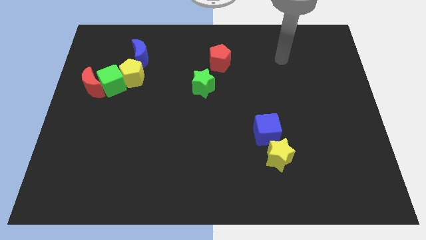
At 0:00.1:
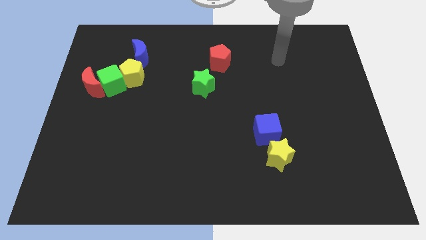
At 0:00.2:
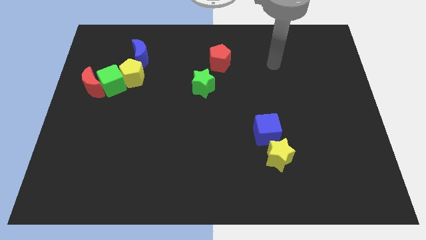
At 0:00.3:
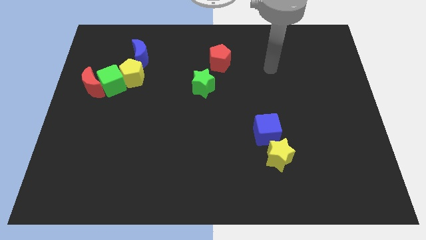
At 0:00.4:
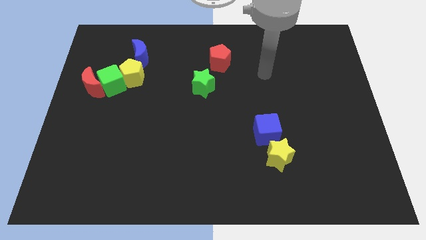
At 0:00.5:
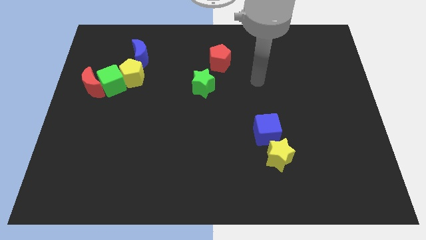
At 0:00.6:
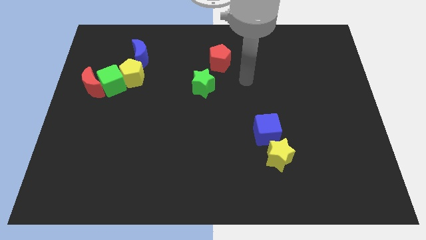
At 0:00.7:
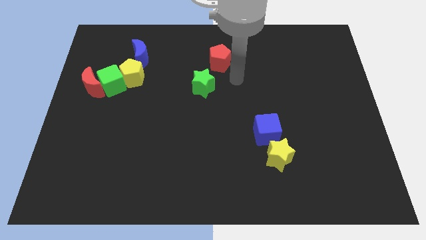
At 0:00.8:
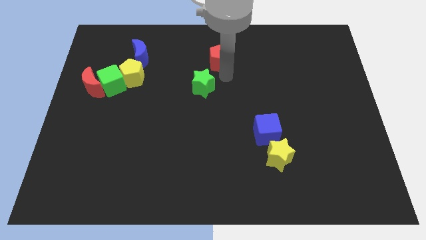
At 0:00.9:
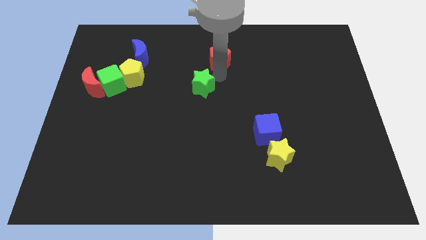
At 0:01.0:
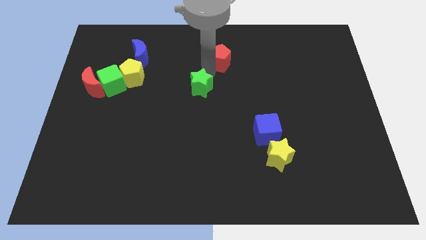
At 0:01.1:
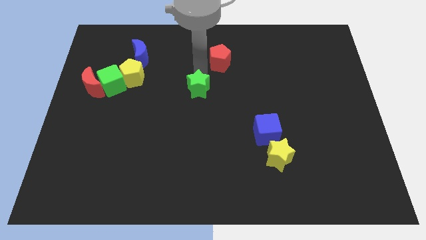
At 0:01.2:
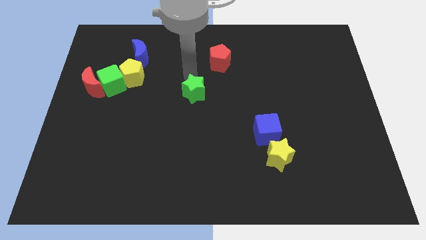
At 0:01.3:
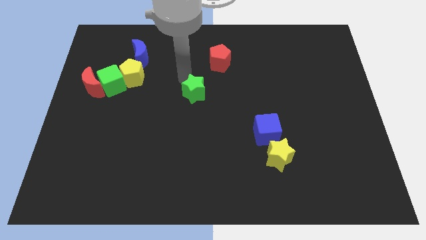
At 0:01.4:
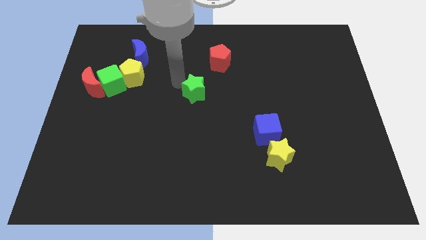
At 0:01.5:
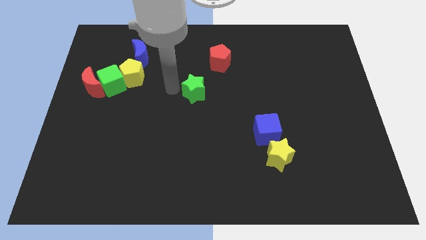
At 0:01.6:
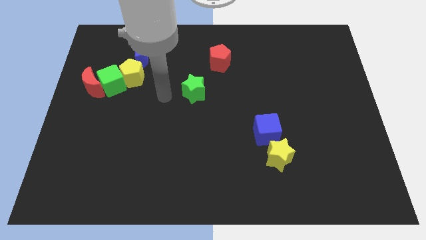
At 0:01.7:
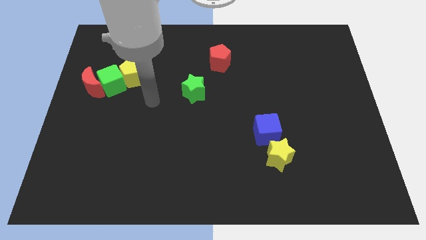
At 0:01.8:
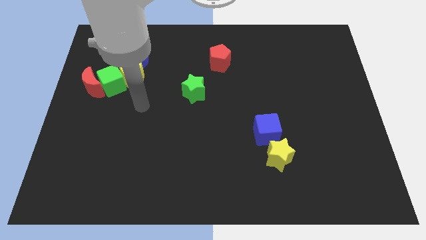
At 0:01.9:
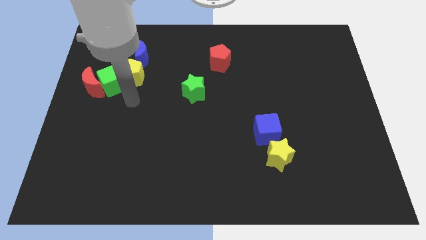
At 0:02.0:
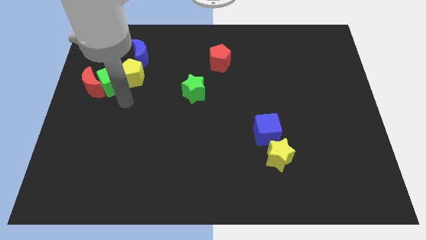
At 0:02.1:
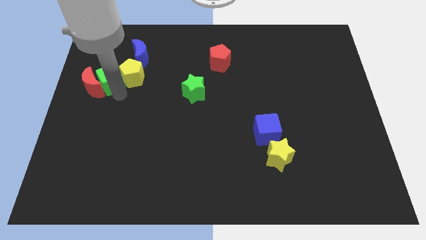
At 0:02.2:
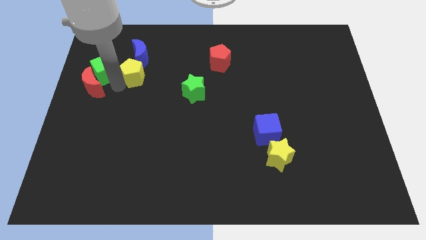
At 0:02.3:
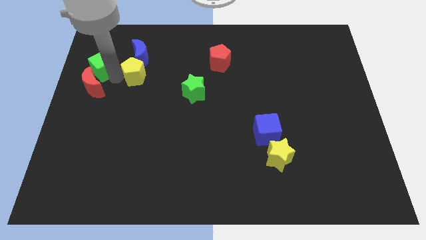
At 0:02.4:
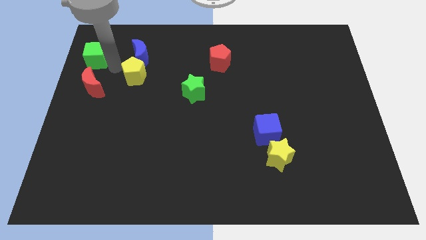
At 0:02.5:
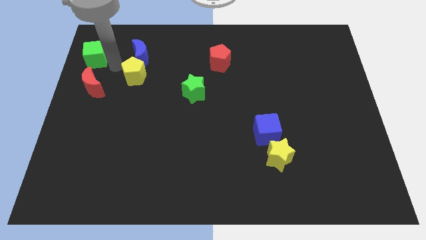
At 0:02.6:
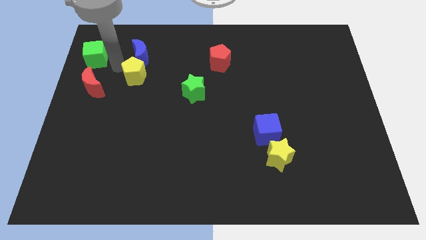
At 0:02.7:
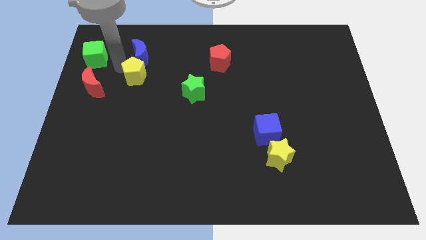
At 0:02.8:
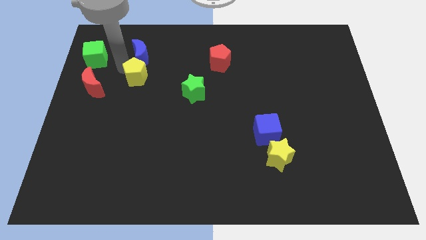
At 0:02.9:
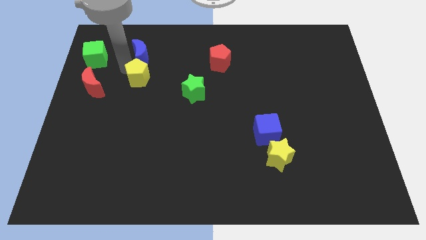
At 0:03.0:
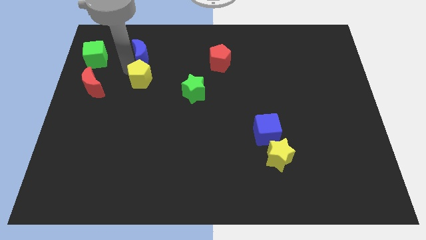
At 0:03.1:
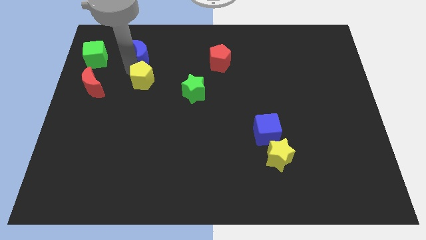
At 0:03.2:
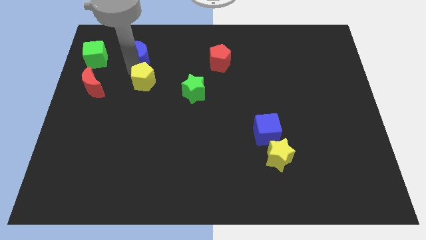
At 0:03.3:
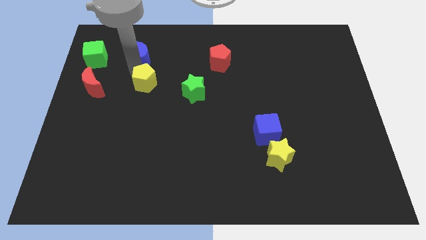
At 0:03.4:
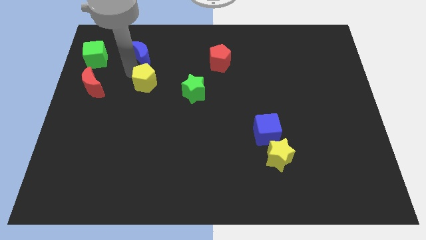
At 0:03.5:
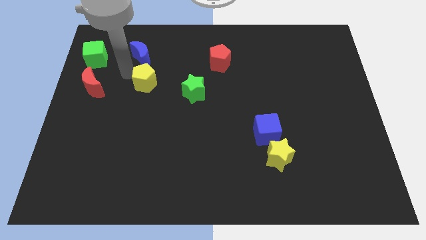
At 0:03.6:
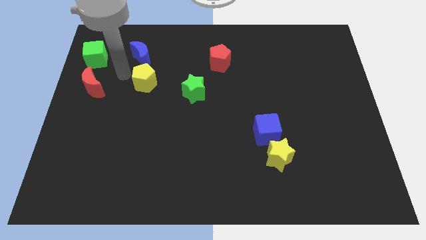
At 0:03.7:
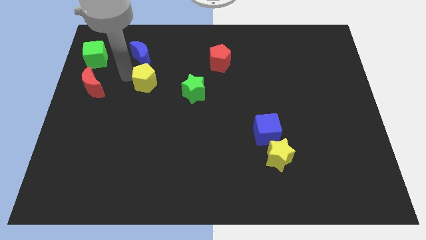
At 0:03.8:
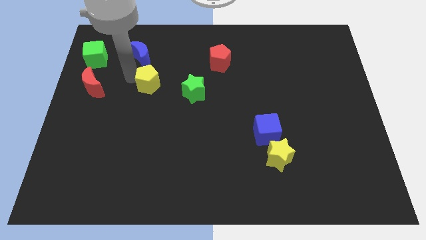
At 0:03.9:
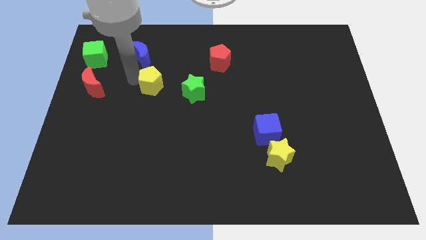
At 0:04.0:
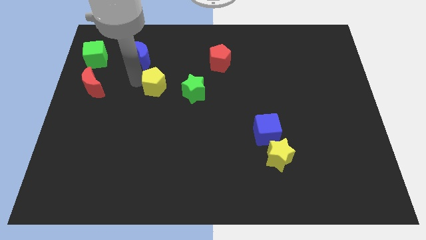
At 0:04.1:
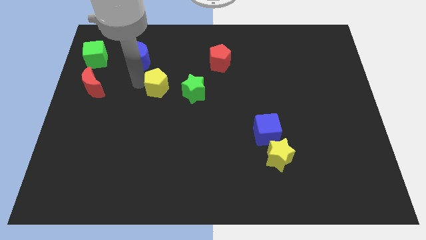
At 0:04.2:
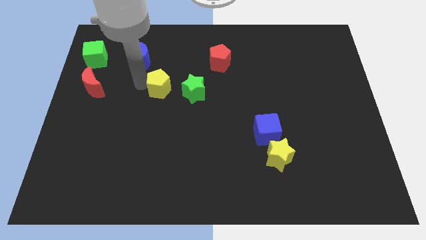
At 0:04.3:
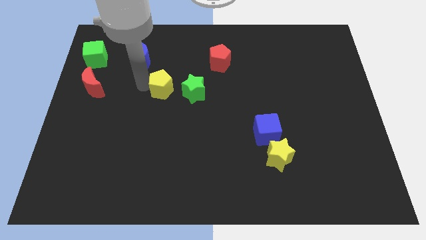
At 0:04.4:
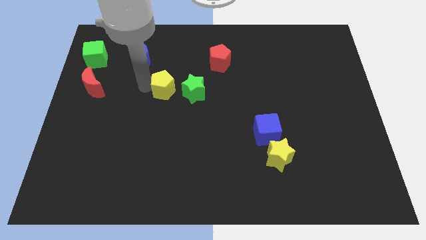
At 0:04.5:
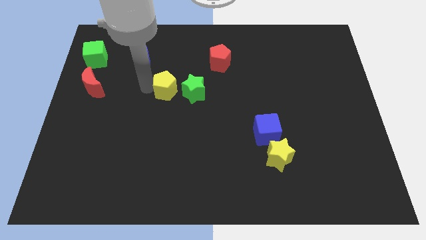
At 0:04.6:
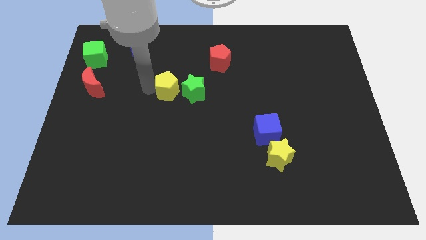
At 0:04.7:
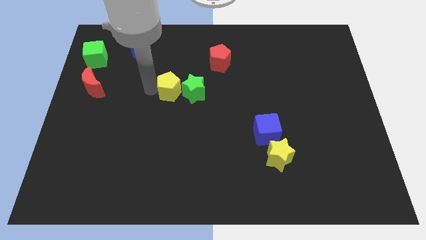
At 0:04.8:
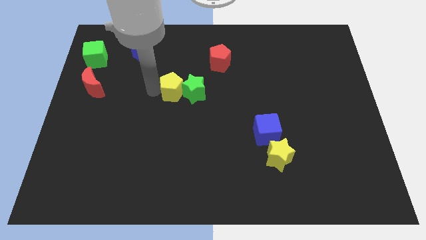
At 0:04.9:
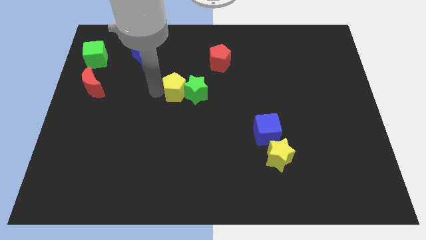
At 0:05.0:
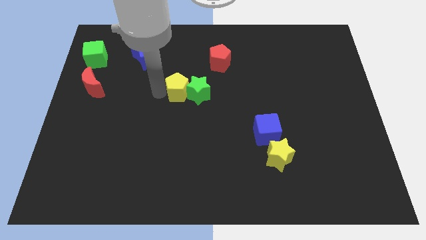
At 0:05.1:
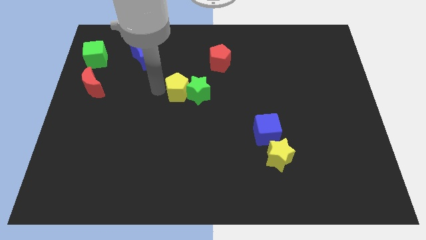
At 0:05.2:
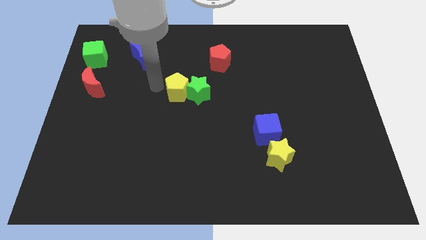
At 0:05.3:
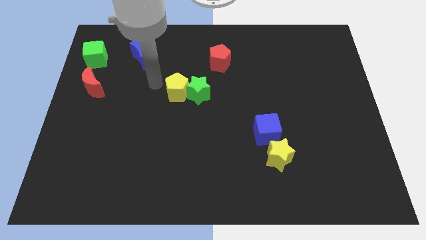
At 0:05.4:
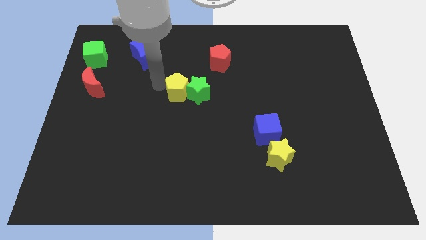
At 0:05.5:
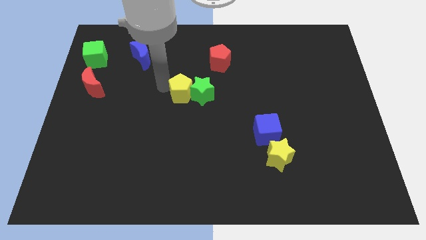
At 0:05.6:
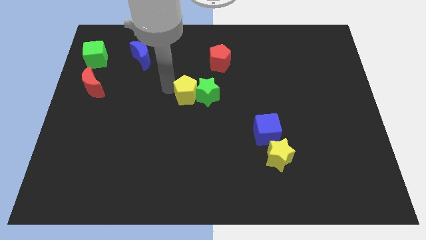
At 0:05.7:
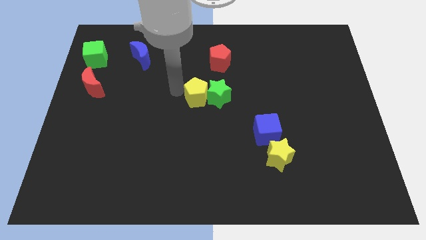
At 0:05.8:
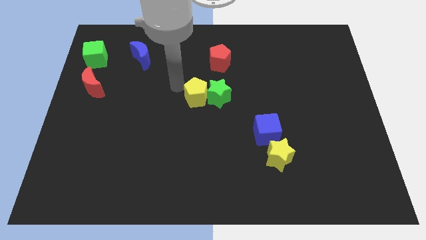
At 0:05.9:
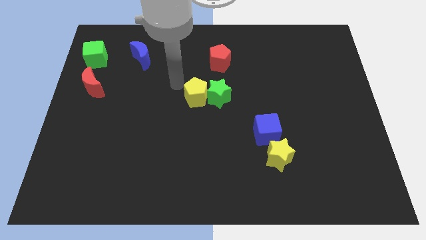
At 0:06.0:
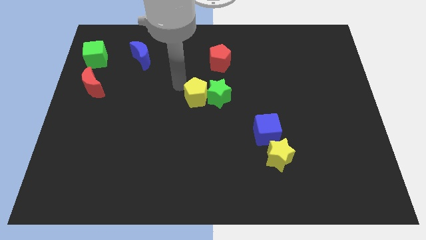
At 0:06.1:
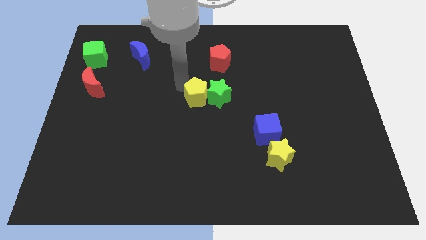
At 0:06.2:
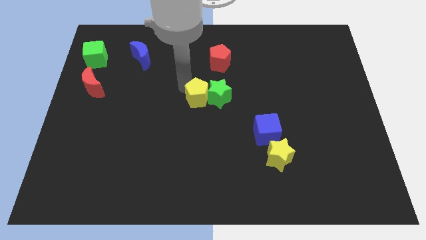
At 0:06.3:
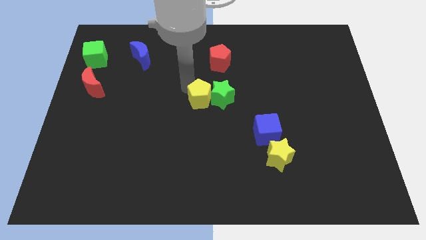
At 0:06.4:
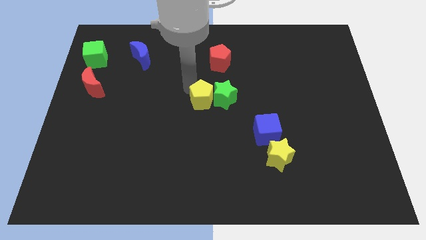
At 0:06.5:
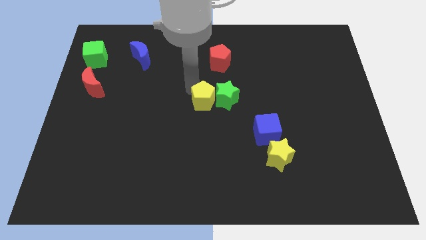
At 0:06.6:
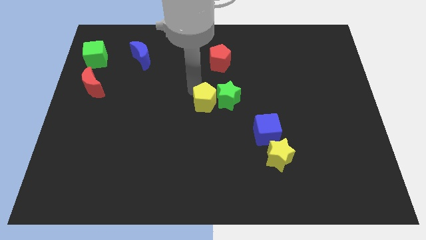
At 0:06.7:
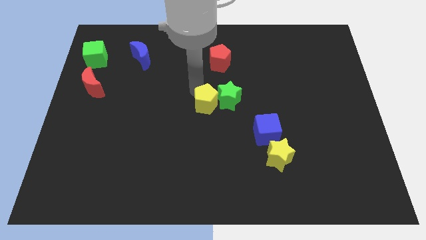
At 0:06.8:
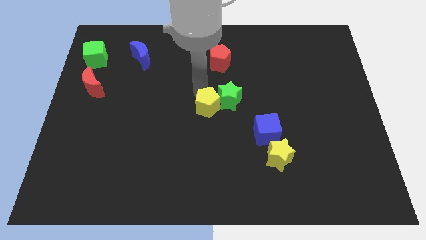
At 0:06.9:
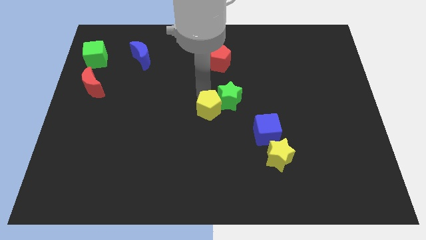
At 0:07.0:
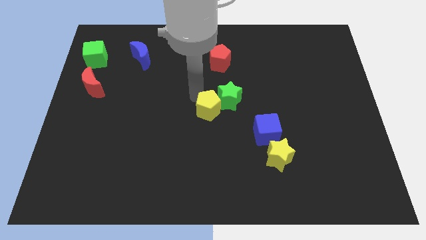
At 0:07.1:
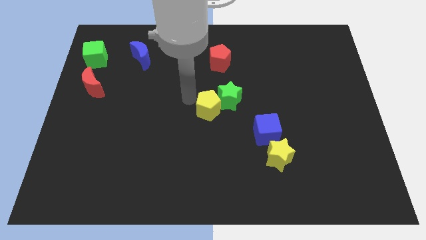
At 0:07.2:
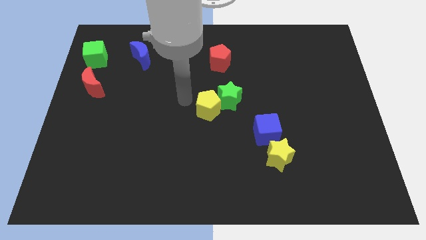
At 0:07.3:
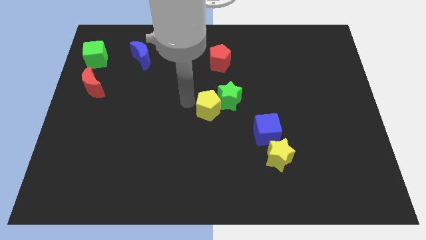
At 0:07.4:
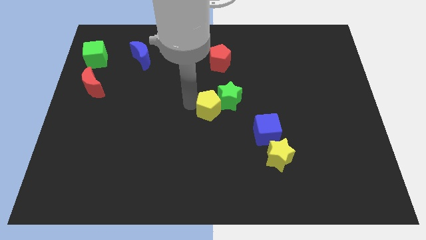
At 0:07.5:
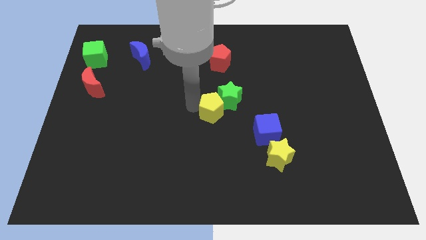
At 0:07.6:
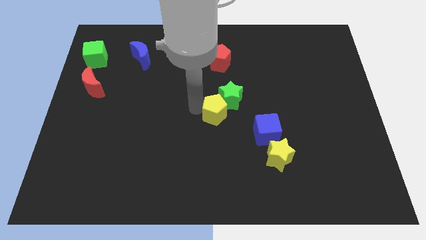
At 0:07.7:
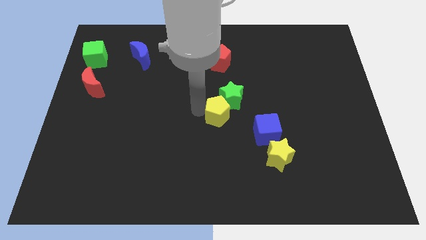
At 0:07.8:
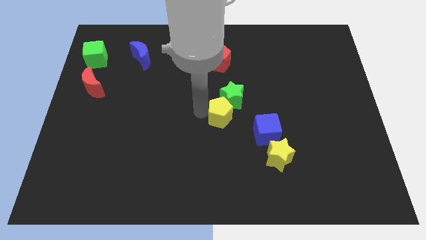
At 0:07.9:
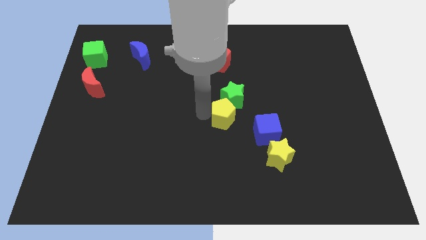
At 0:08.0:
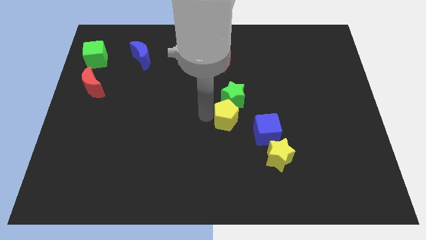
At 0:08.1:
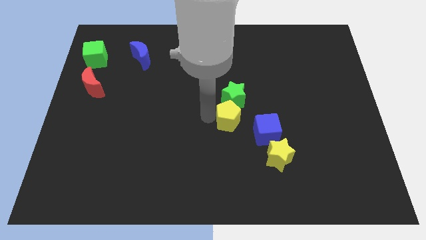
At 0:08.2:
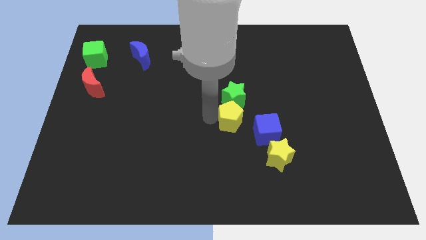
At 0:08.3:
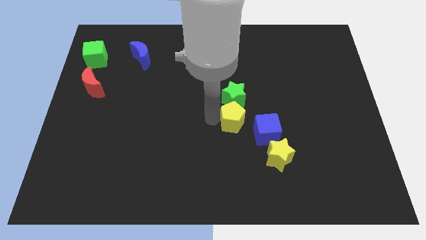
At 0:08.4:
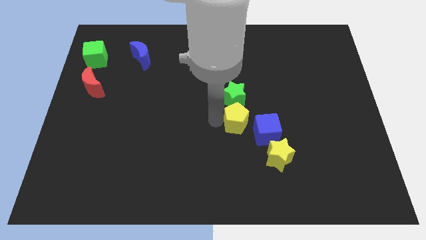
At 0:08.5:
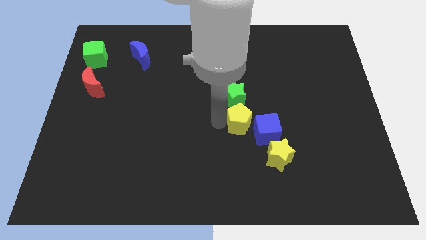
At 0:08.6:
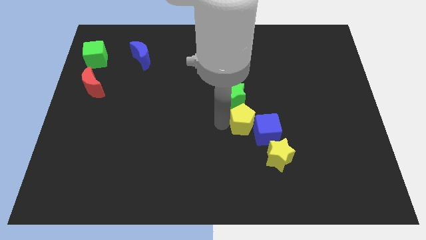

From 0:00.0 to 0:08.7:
slide the yellow pentagon close to the blue cube
